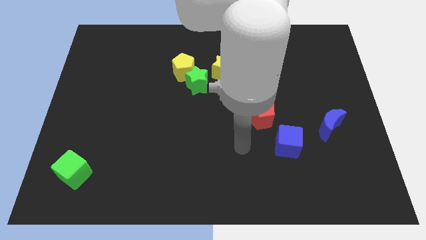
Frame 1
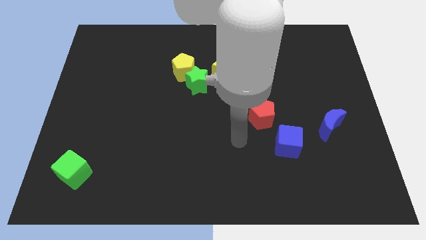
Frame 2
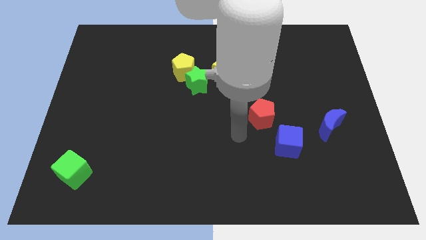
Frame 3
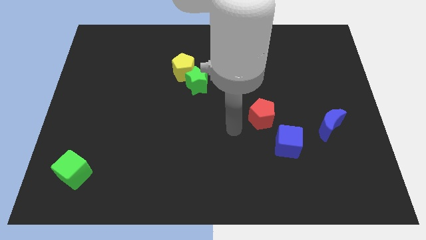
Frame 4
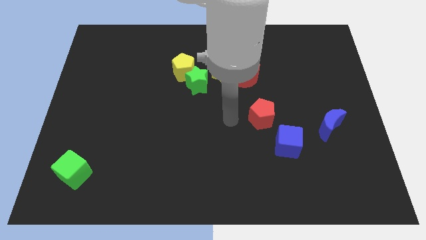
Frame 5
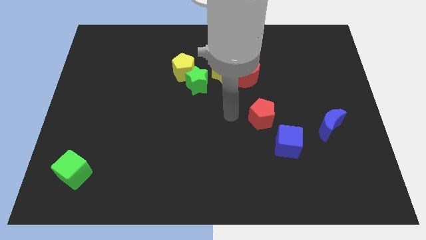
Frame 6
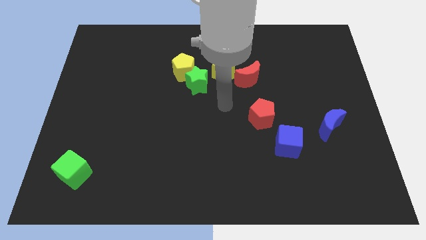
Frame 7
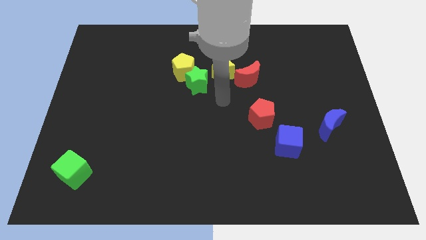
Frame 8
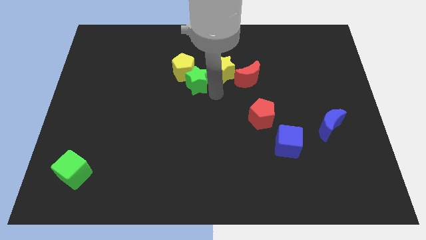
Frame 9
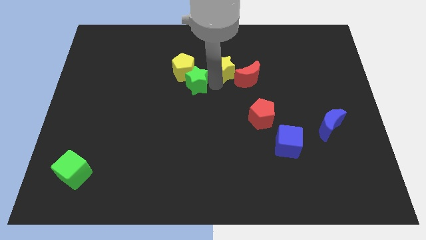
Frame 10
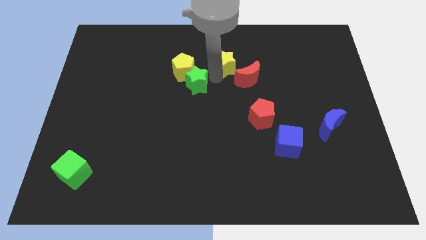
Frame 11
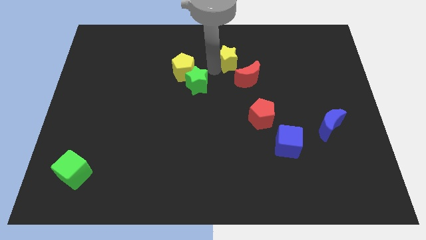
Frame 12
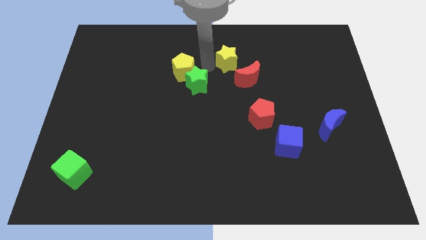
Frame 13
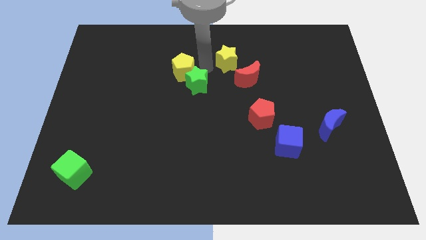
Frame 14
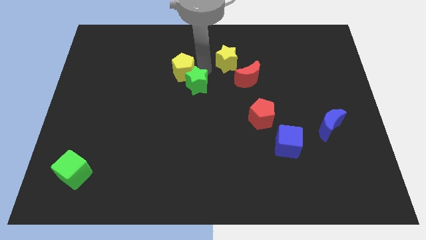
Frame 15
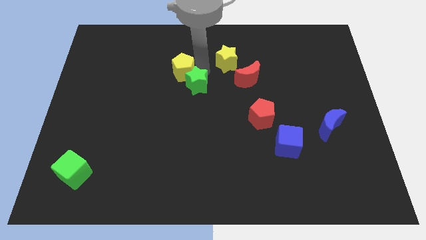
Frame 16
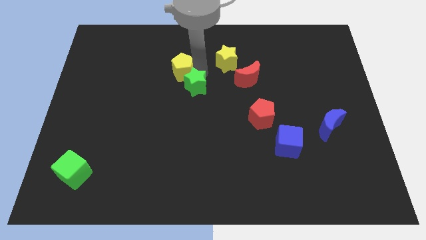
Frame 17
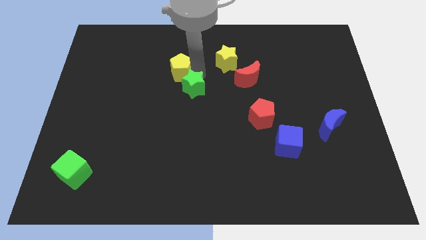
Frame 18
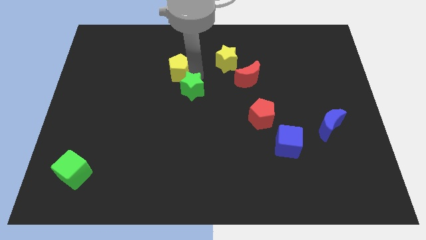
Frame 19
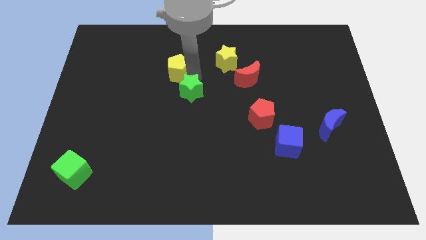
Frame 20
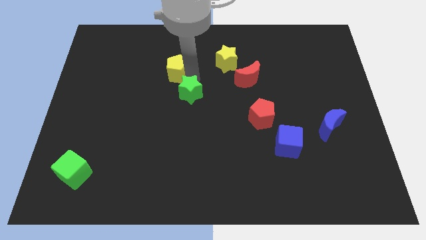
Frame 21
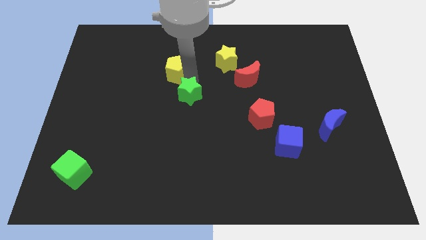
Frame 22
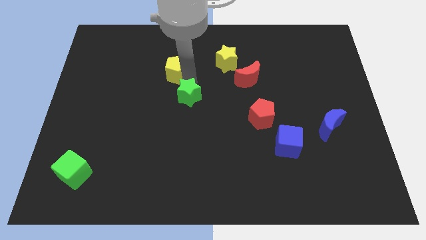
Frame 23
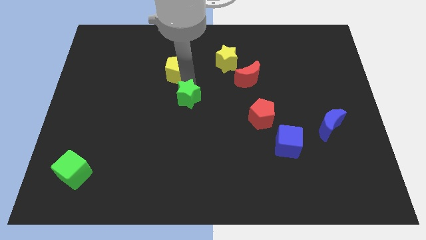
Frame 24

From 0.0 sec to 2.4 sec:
separate the green star from the yellow pentagon and yellow star

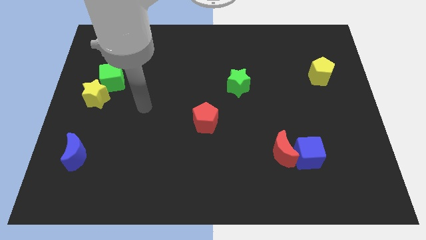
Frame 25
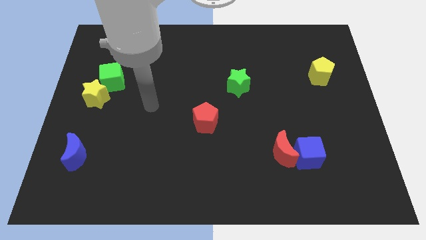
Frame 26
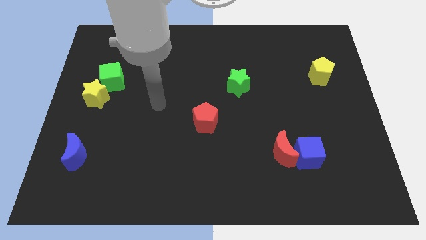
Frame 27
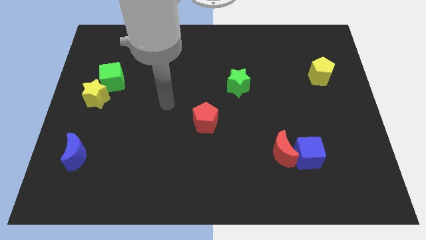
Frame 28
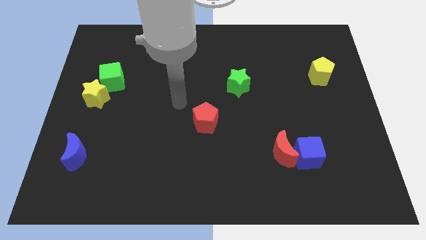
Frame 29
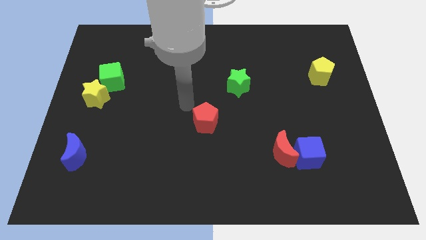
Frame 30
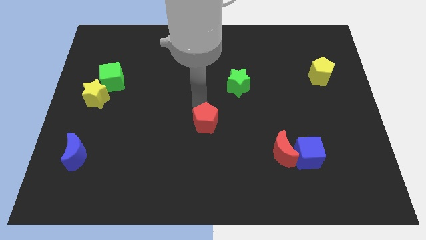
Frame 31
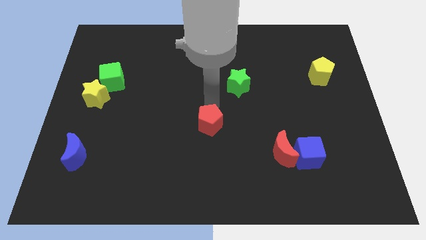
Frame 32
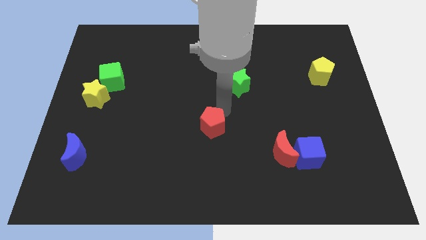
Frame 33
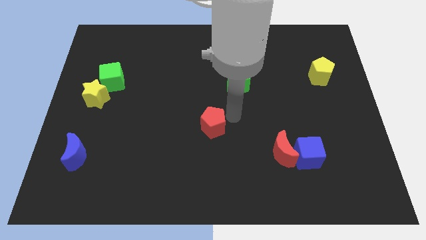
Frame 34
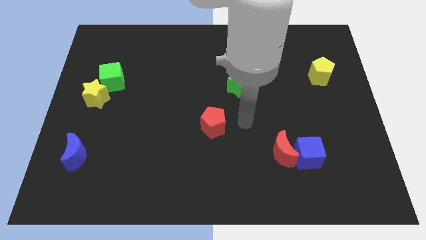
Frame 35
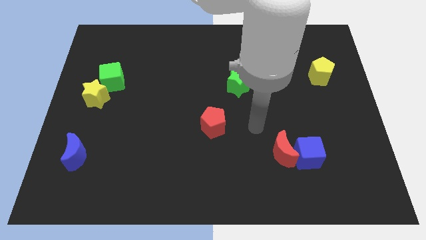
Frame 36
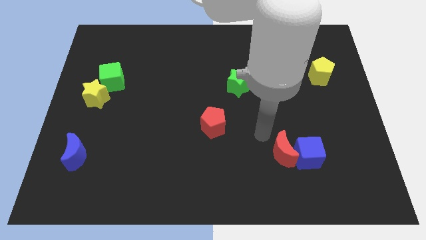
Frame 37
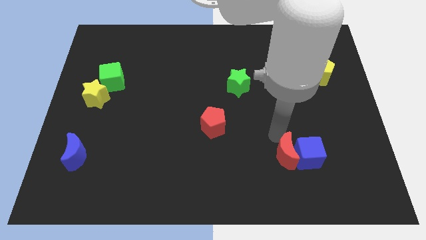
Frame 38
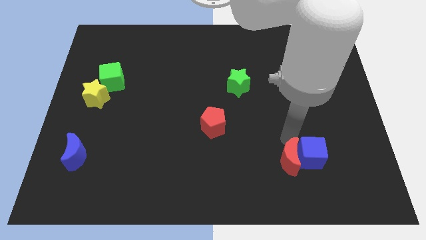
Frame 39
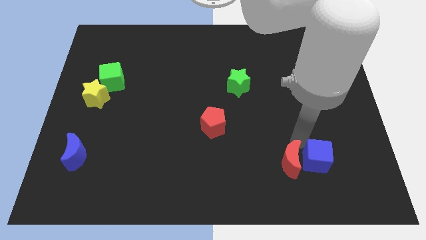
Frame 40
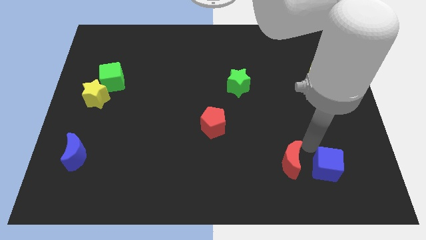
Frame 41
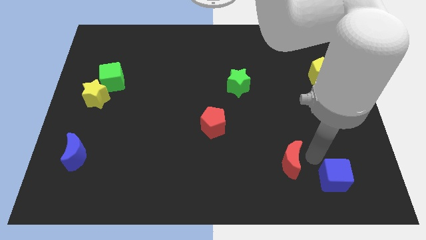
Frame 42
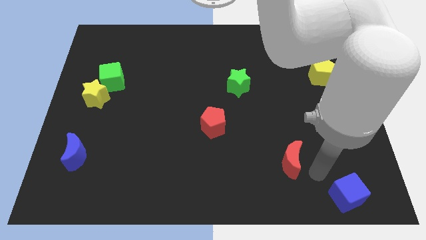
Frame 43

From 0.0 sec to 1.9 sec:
separate the red moon from the blue cube

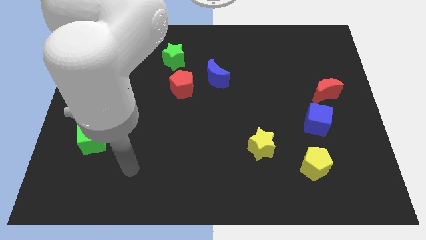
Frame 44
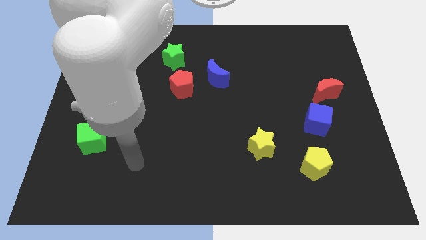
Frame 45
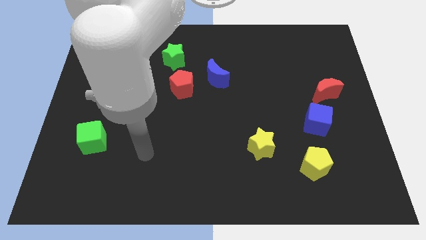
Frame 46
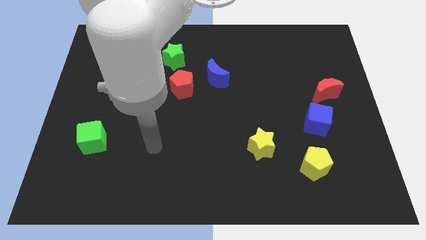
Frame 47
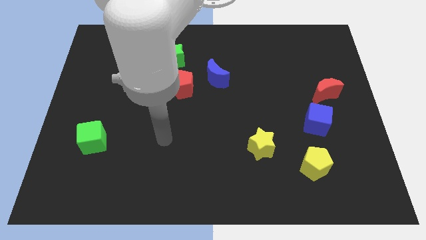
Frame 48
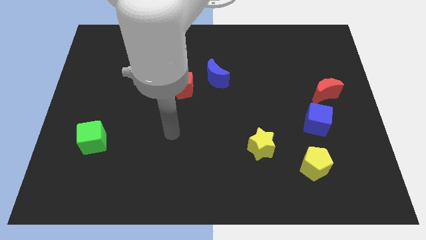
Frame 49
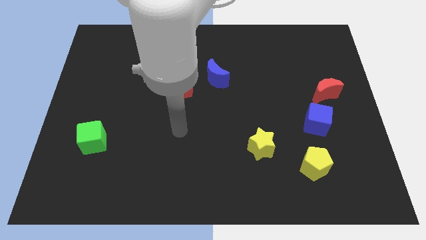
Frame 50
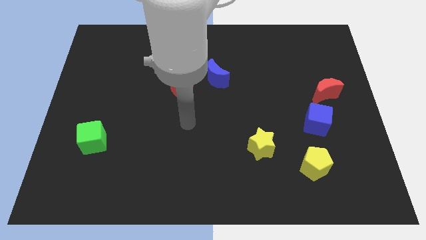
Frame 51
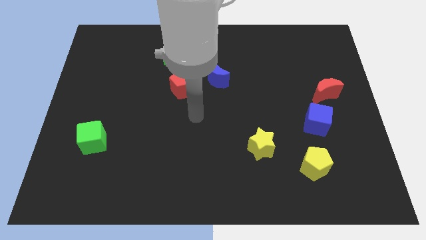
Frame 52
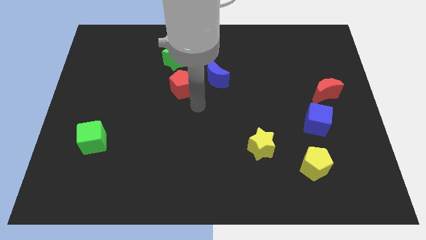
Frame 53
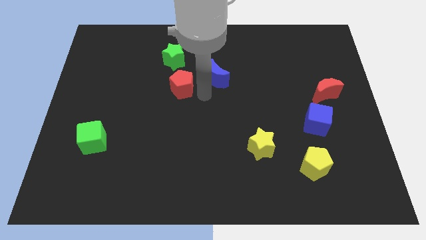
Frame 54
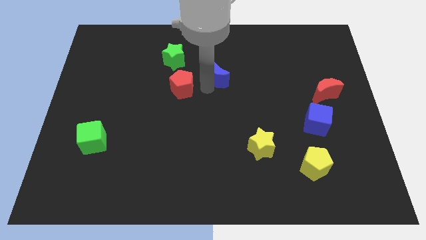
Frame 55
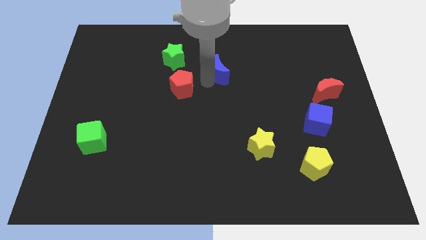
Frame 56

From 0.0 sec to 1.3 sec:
pull the red pentagon apart from the blue moon

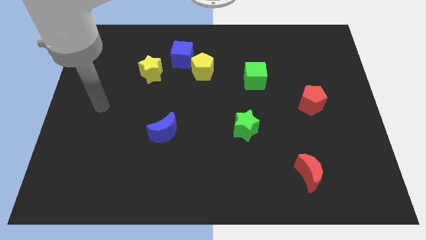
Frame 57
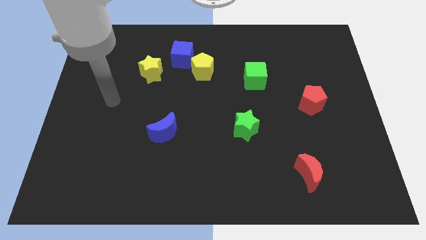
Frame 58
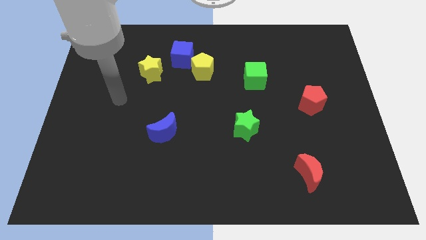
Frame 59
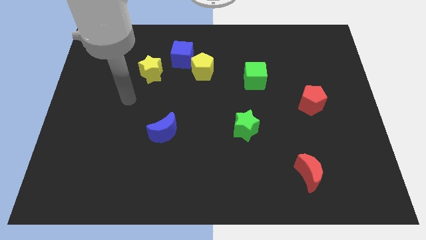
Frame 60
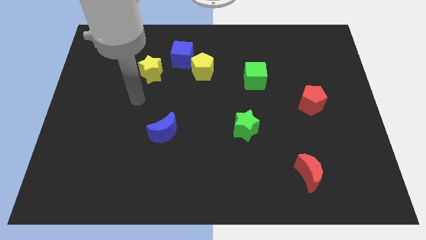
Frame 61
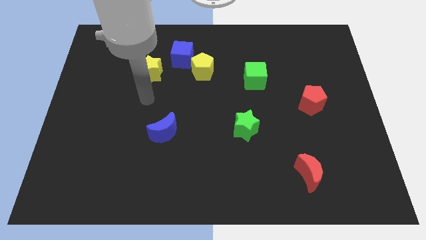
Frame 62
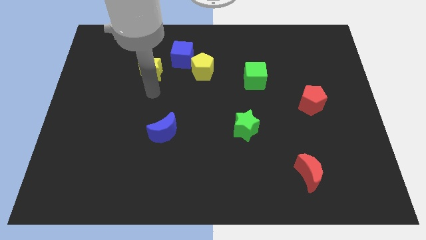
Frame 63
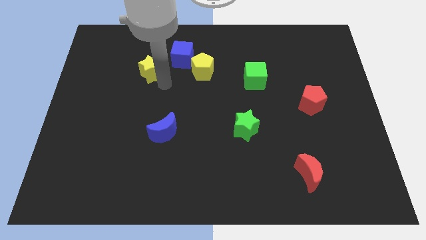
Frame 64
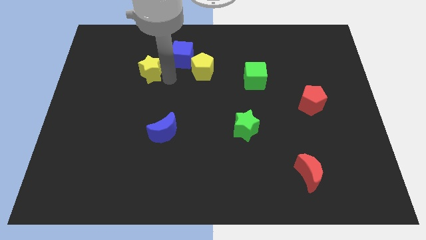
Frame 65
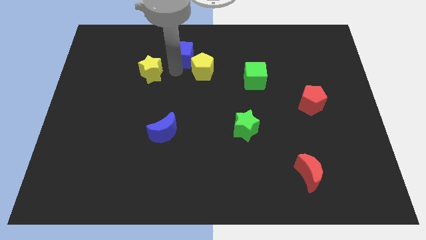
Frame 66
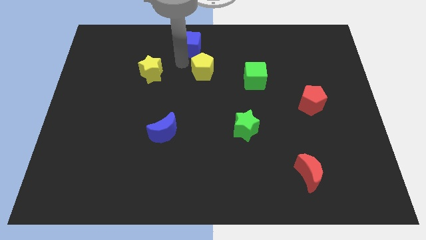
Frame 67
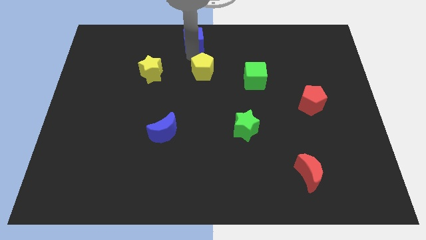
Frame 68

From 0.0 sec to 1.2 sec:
pull the yellow pentagon apart from the blue cube

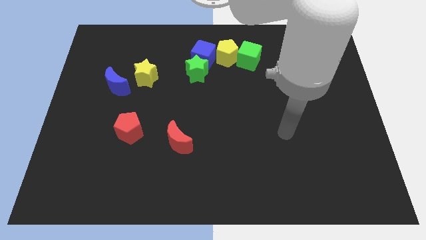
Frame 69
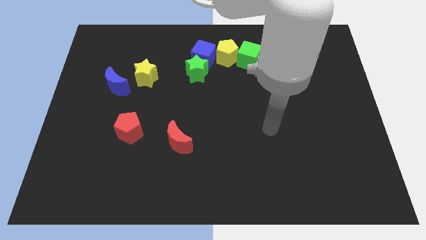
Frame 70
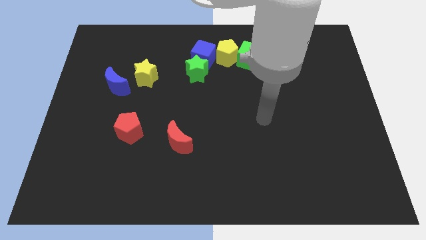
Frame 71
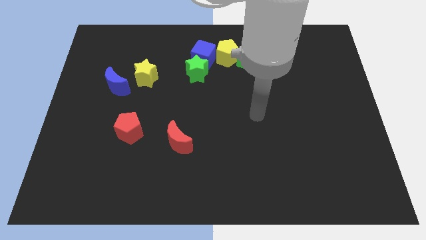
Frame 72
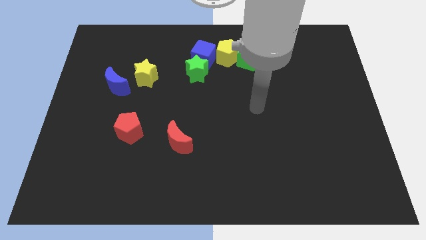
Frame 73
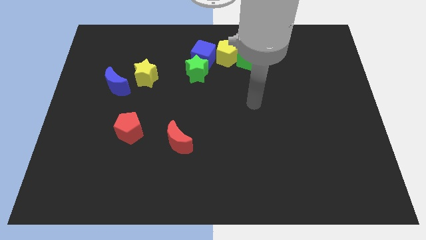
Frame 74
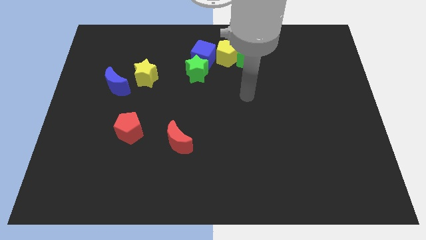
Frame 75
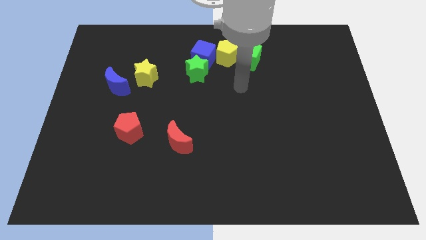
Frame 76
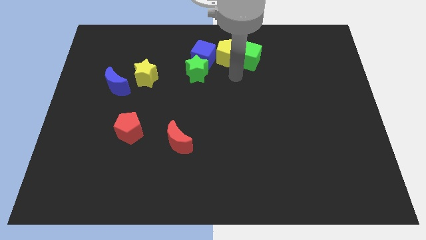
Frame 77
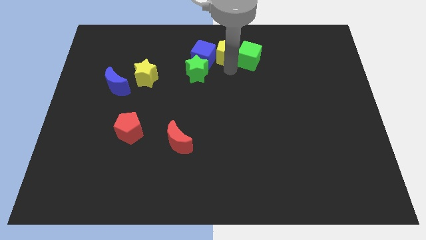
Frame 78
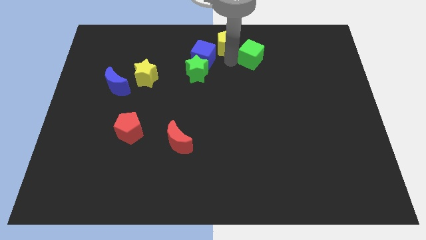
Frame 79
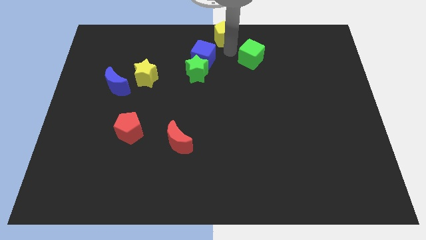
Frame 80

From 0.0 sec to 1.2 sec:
pull the green cube apart from the yellow pentagon

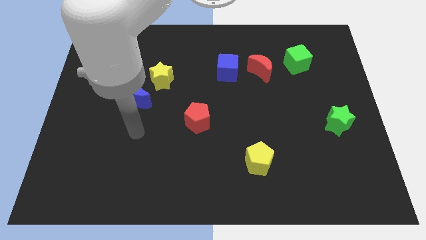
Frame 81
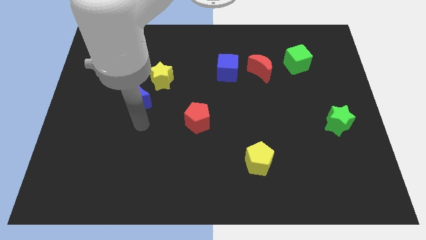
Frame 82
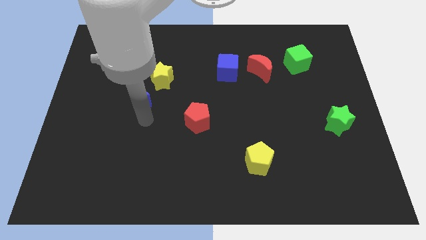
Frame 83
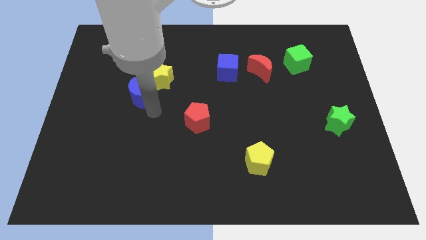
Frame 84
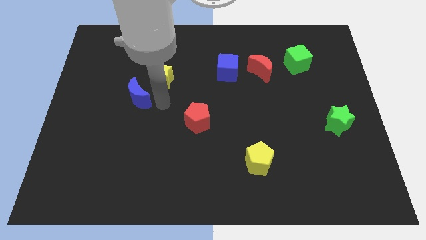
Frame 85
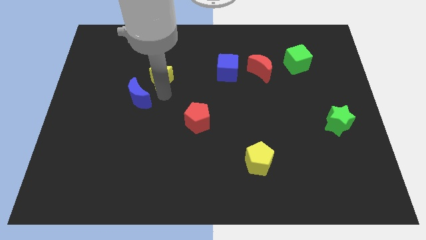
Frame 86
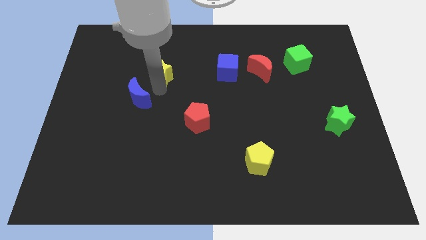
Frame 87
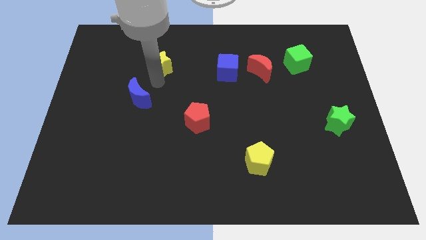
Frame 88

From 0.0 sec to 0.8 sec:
pull the blue moon apart from the yellow star

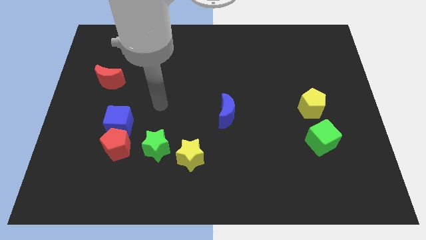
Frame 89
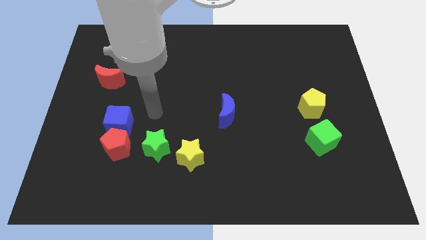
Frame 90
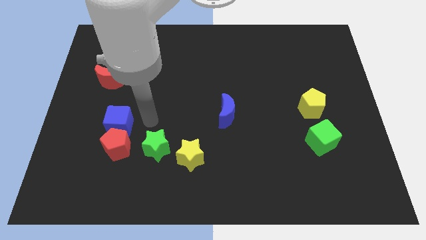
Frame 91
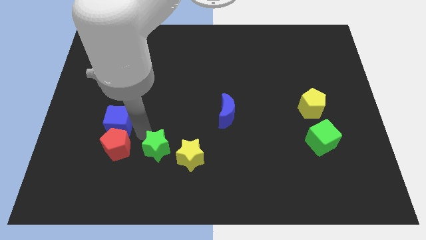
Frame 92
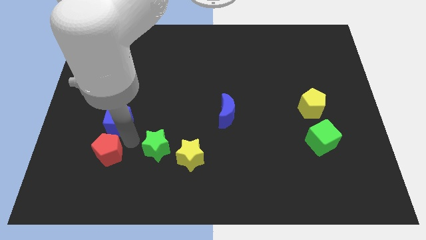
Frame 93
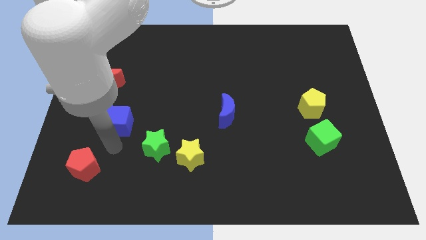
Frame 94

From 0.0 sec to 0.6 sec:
pull the blue cube apart from the red pentagon
